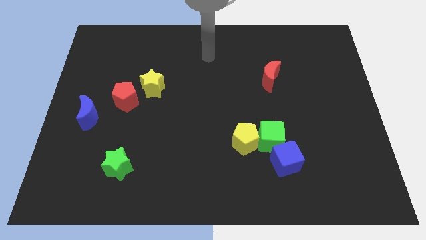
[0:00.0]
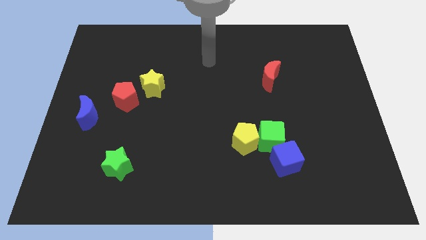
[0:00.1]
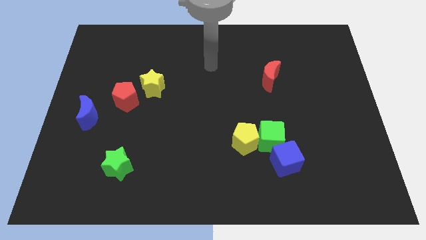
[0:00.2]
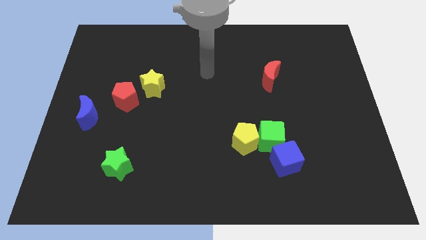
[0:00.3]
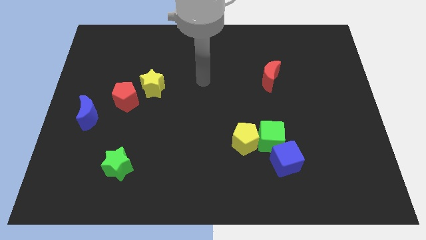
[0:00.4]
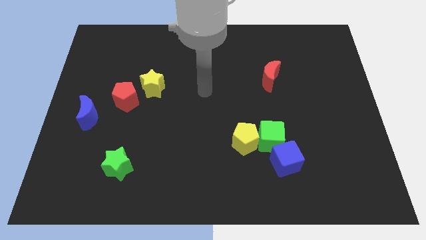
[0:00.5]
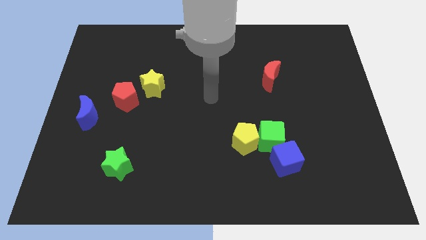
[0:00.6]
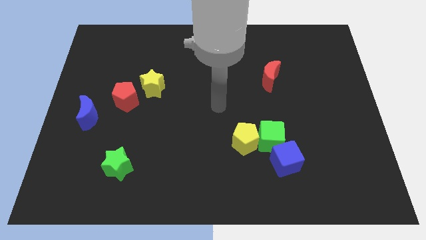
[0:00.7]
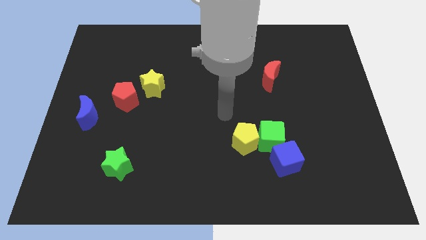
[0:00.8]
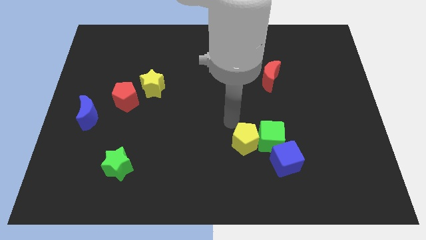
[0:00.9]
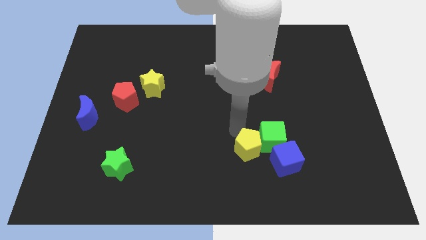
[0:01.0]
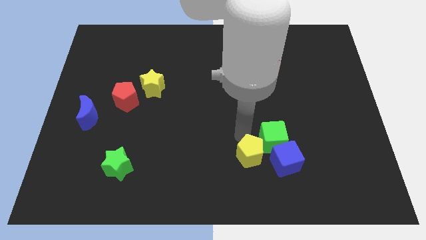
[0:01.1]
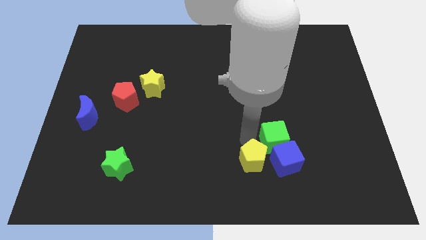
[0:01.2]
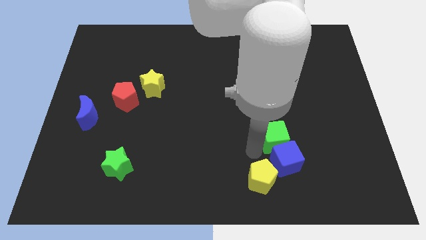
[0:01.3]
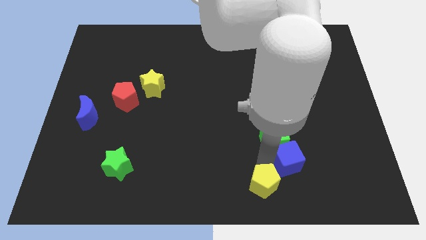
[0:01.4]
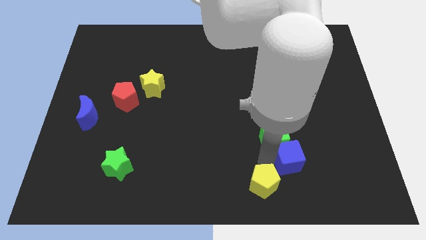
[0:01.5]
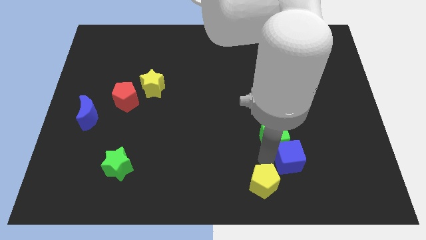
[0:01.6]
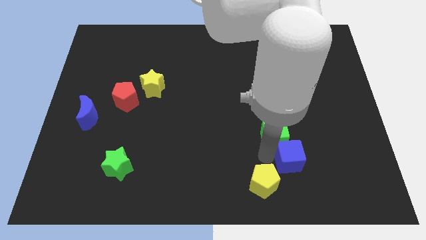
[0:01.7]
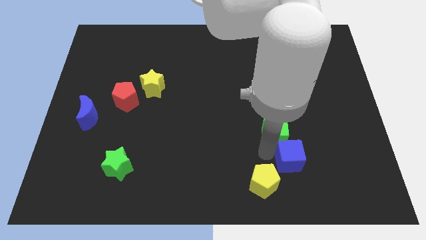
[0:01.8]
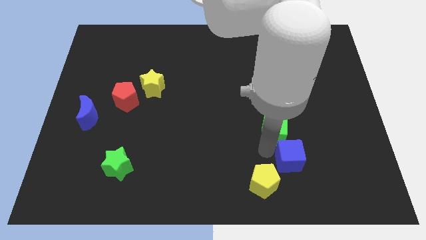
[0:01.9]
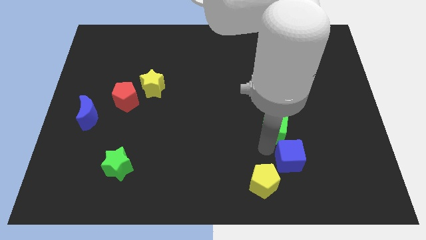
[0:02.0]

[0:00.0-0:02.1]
move the green cube away from the yellow pentagon and blue cube

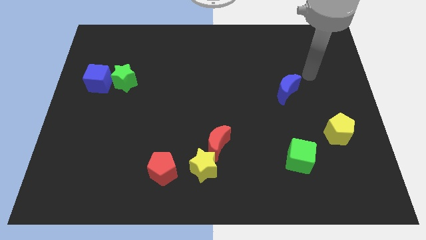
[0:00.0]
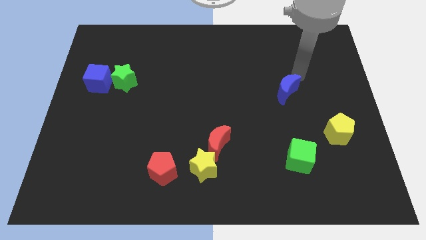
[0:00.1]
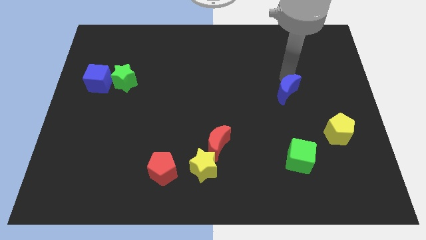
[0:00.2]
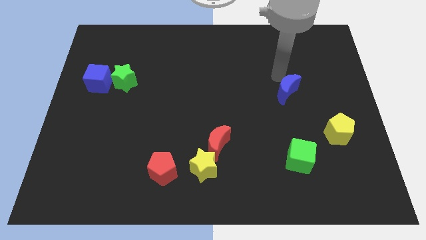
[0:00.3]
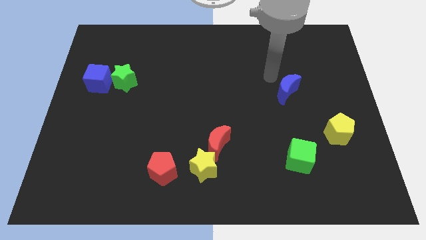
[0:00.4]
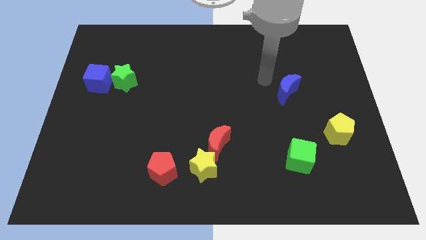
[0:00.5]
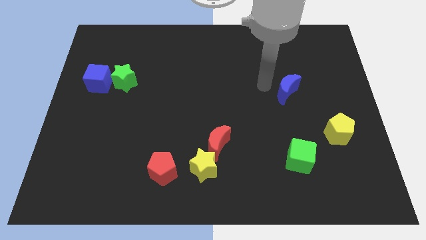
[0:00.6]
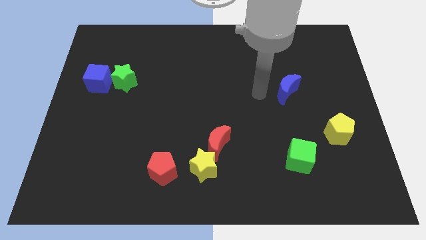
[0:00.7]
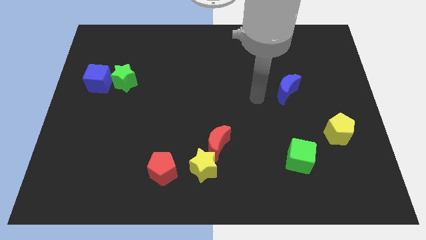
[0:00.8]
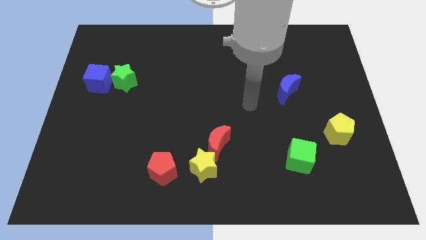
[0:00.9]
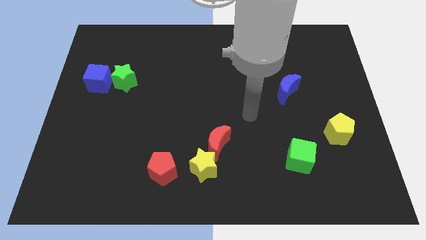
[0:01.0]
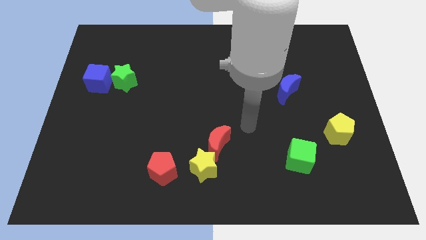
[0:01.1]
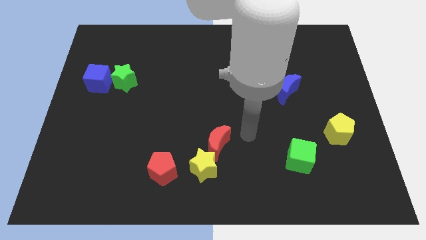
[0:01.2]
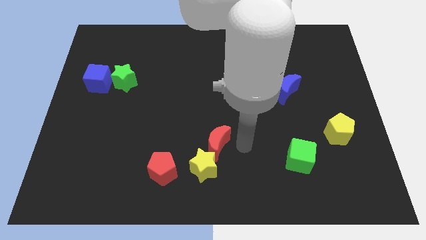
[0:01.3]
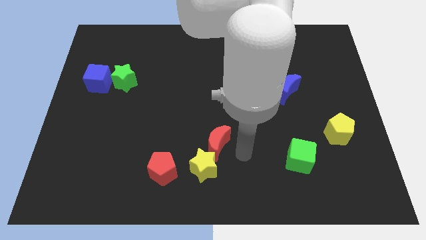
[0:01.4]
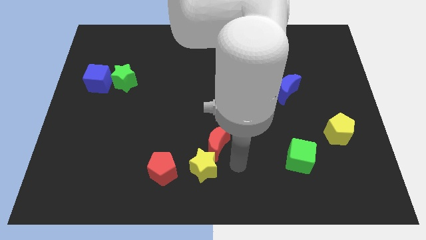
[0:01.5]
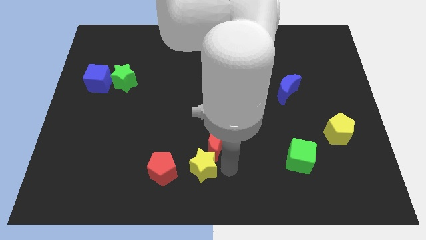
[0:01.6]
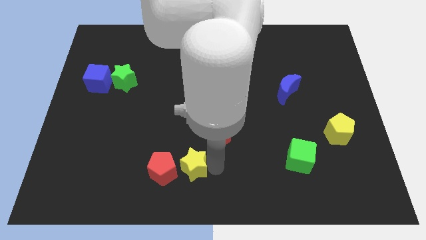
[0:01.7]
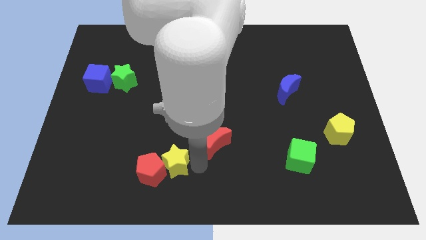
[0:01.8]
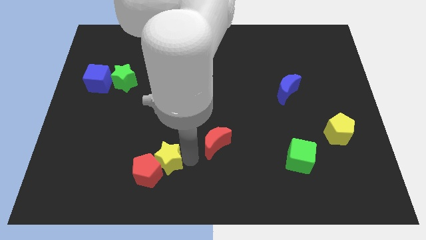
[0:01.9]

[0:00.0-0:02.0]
separate the red moon from the yellow star

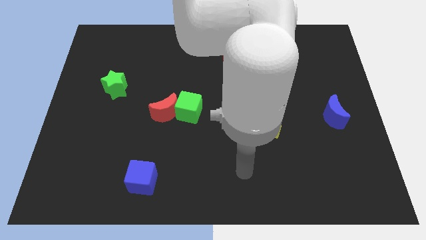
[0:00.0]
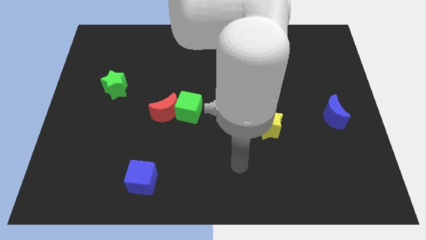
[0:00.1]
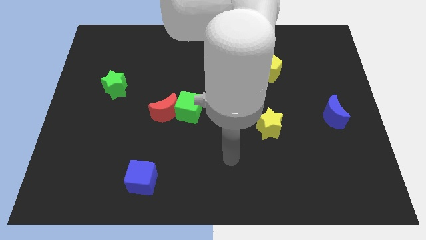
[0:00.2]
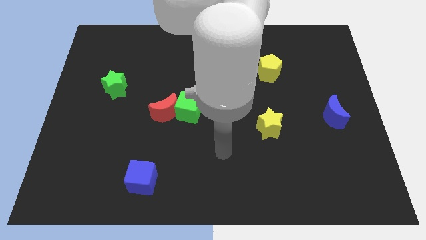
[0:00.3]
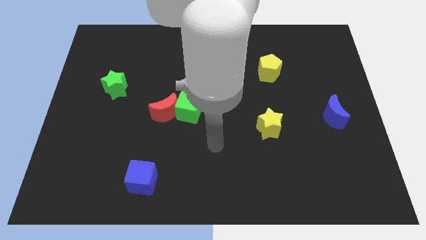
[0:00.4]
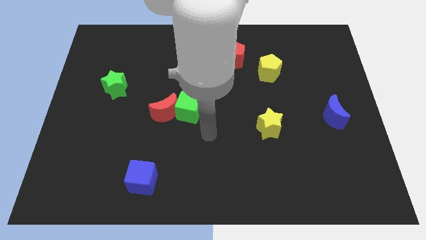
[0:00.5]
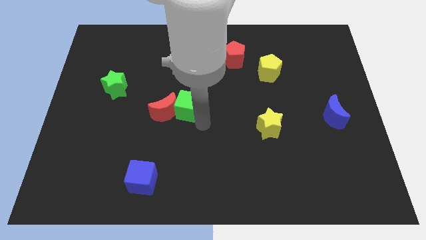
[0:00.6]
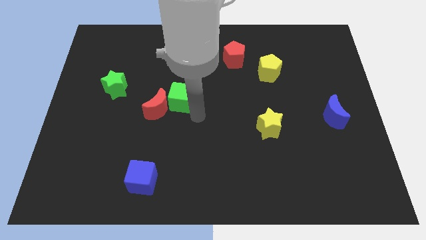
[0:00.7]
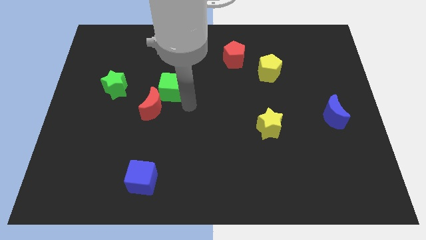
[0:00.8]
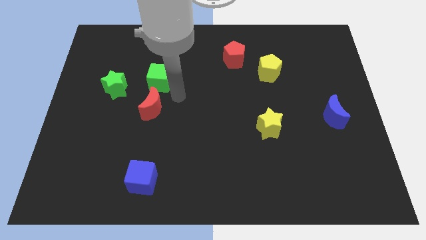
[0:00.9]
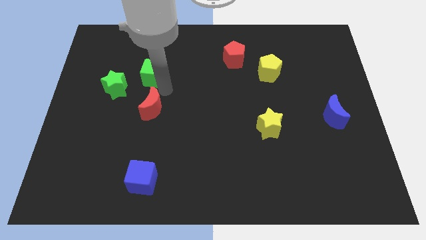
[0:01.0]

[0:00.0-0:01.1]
separate the red moon from the green cube

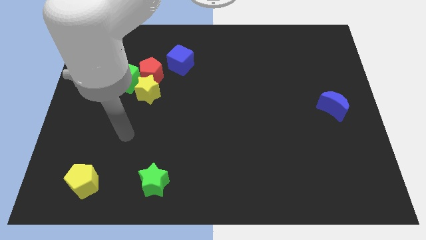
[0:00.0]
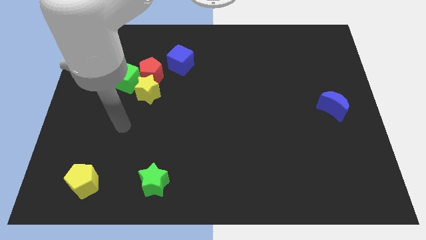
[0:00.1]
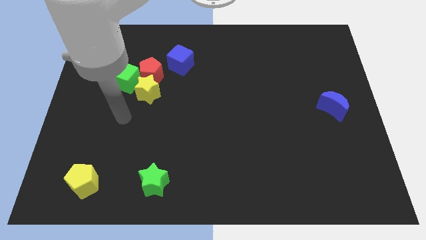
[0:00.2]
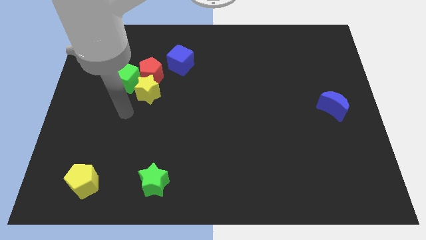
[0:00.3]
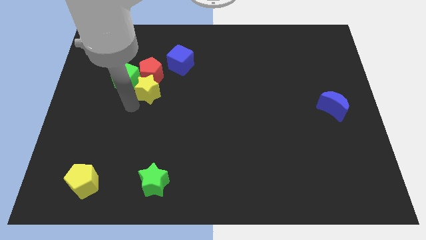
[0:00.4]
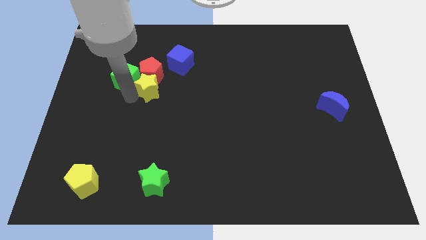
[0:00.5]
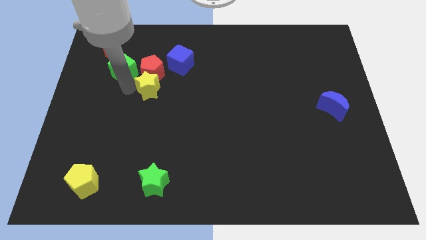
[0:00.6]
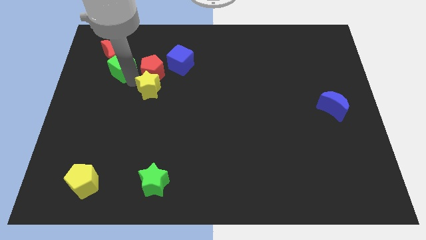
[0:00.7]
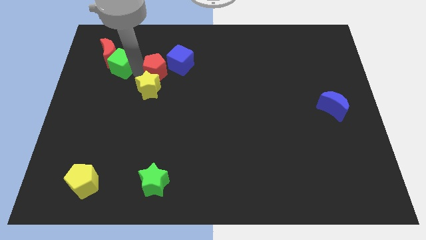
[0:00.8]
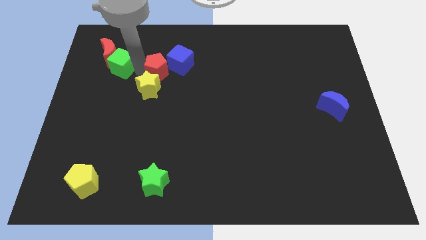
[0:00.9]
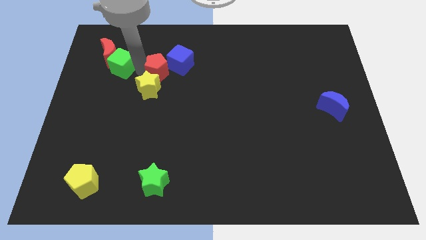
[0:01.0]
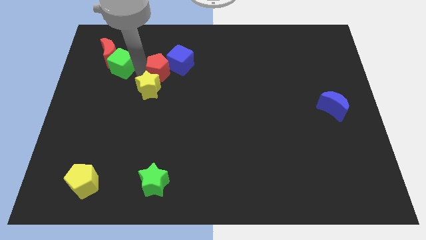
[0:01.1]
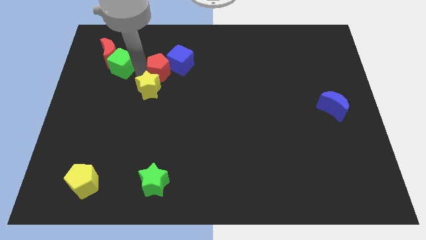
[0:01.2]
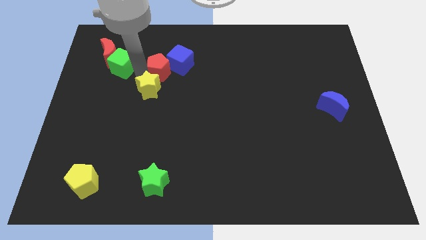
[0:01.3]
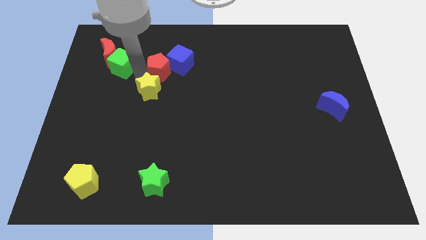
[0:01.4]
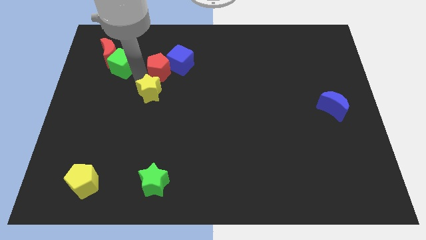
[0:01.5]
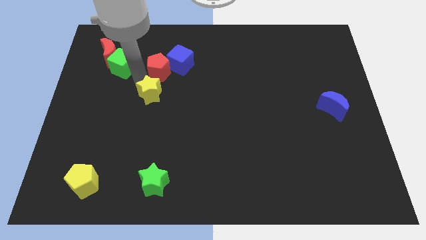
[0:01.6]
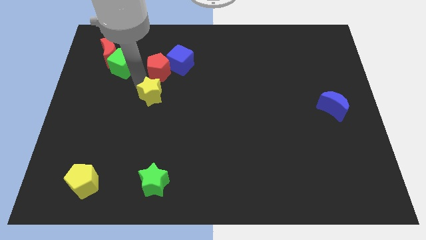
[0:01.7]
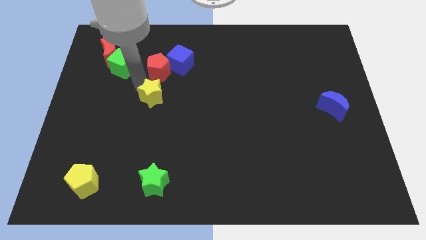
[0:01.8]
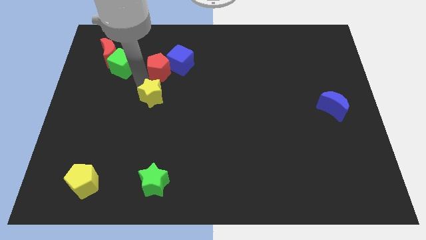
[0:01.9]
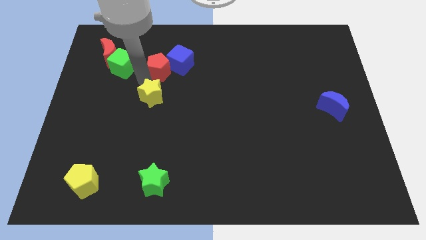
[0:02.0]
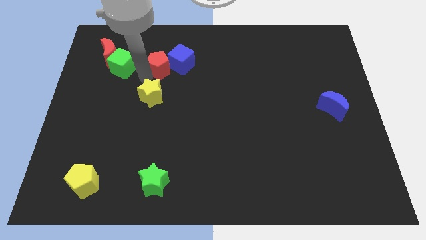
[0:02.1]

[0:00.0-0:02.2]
separate the yellow star from the red pentagon and green cube

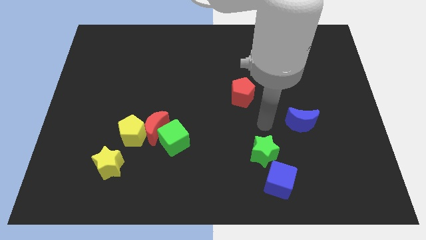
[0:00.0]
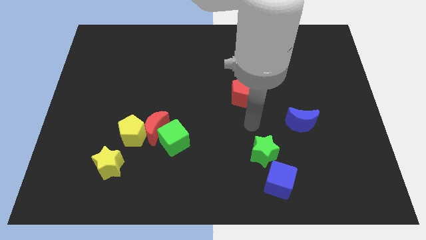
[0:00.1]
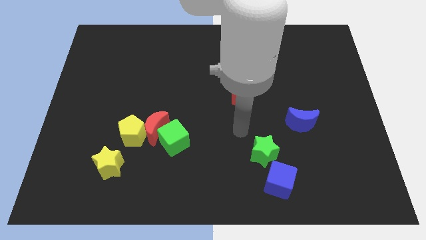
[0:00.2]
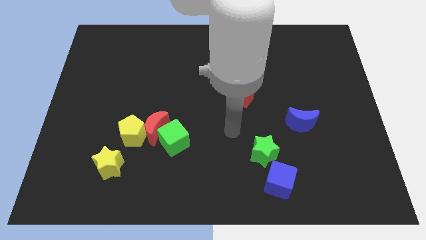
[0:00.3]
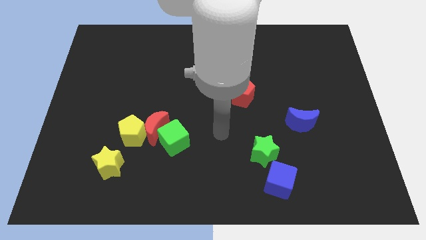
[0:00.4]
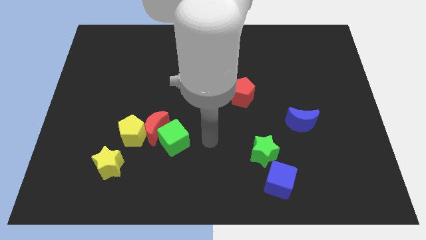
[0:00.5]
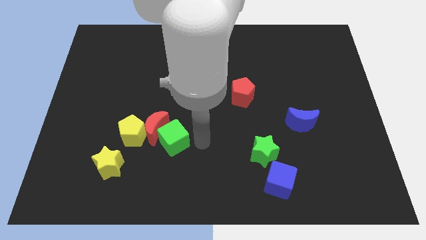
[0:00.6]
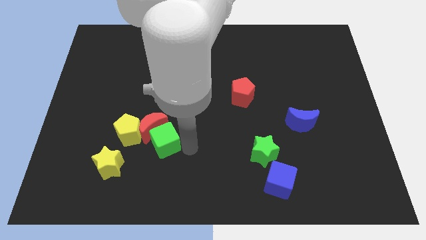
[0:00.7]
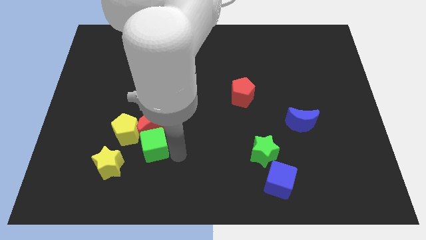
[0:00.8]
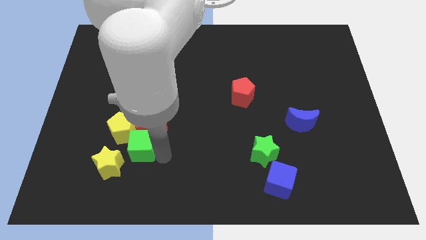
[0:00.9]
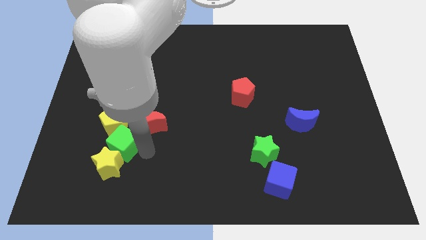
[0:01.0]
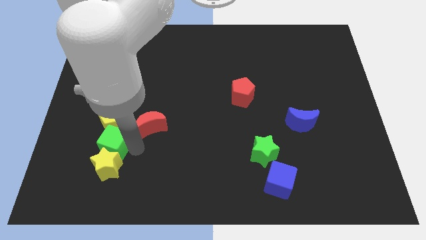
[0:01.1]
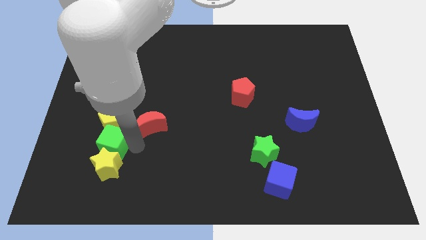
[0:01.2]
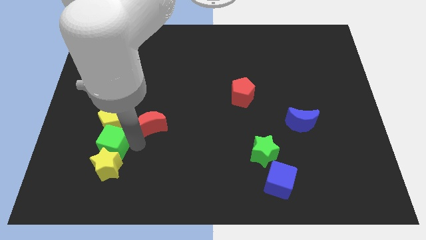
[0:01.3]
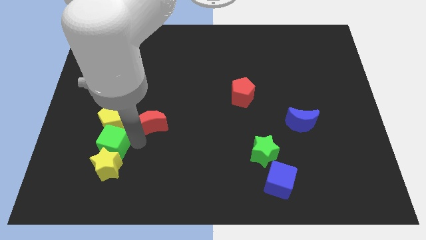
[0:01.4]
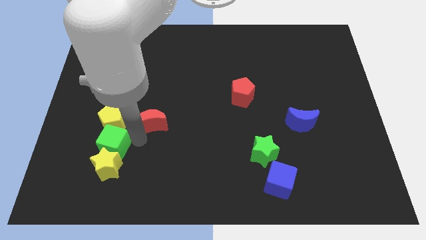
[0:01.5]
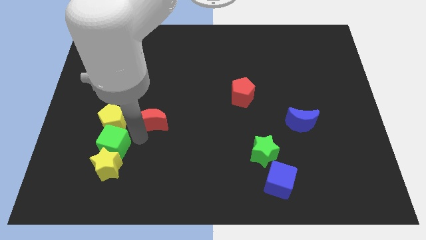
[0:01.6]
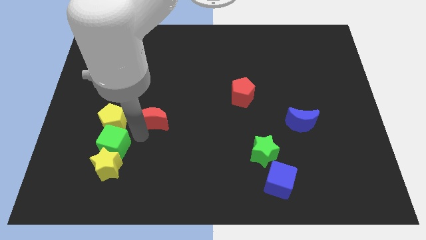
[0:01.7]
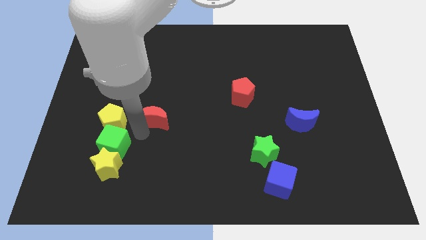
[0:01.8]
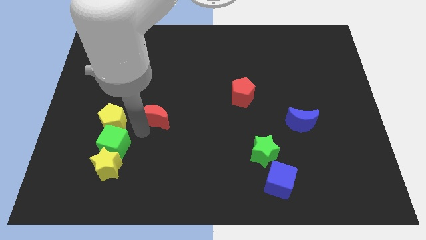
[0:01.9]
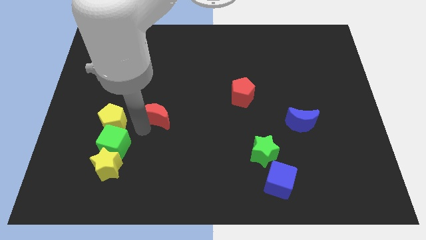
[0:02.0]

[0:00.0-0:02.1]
move the red moon away from the yellow pentagon and green cube
